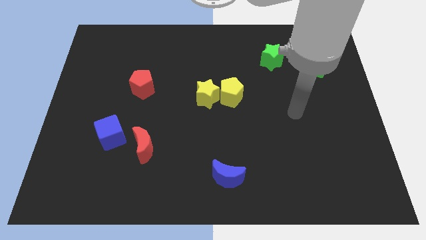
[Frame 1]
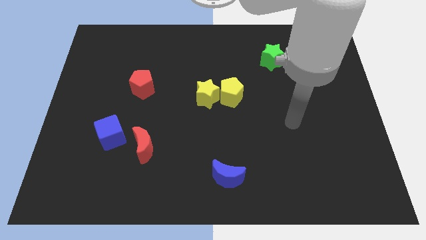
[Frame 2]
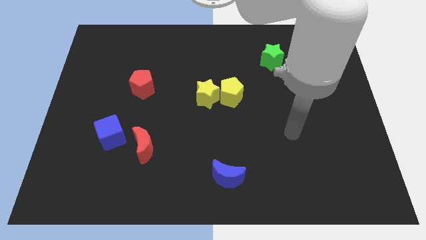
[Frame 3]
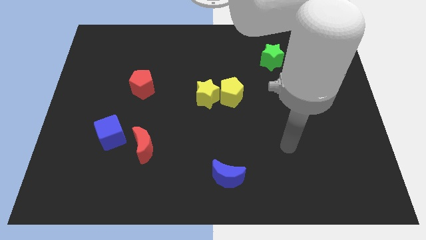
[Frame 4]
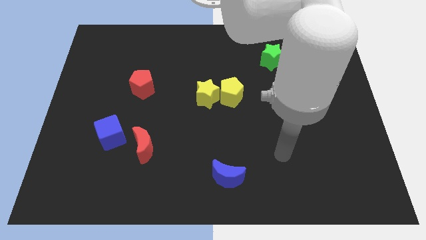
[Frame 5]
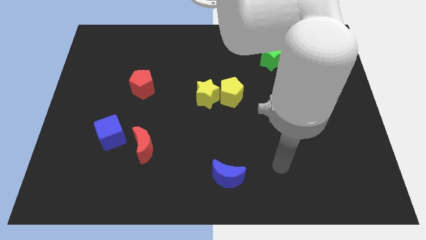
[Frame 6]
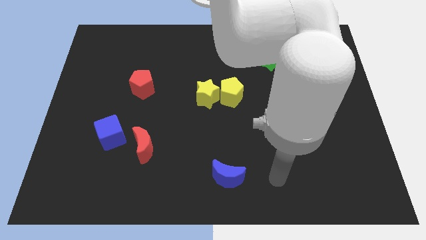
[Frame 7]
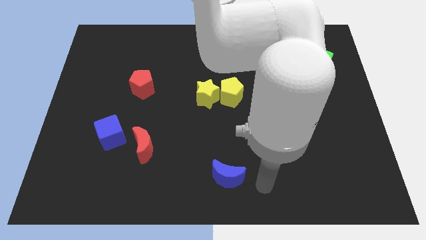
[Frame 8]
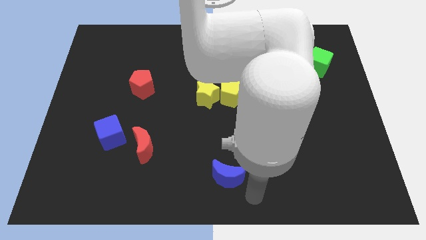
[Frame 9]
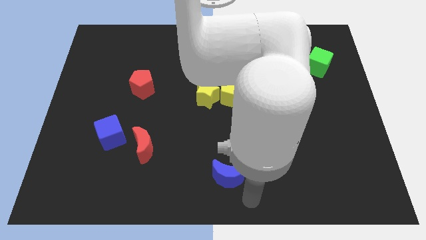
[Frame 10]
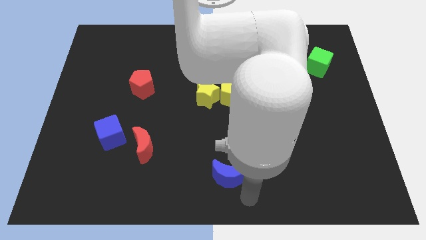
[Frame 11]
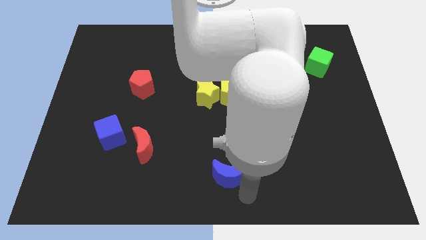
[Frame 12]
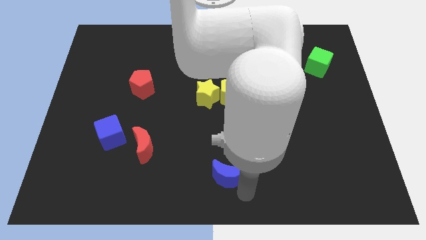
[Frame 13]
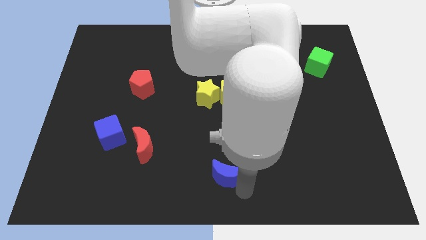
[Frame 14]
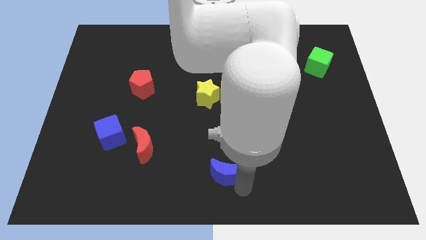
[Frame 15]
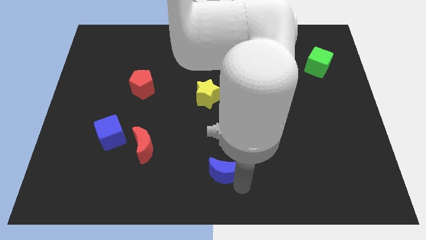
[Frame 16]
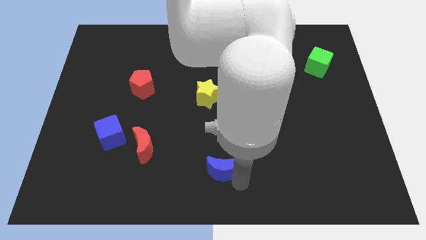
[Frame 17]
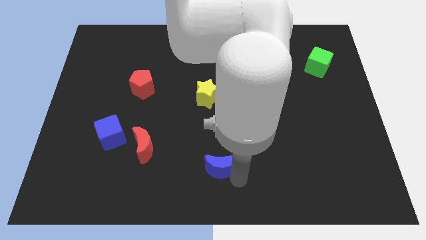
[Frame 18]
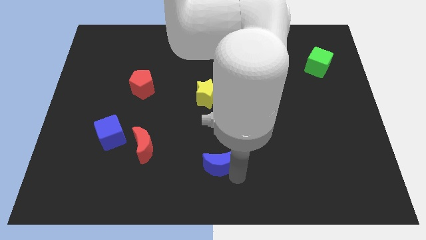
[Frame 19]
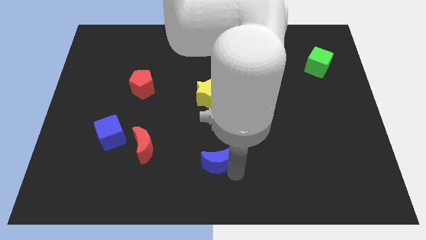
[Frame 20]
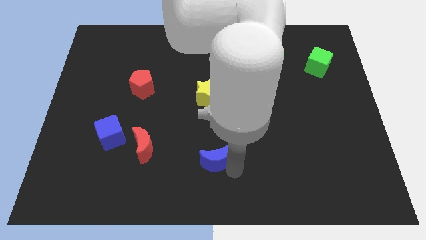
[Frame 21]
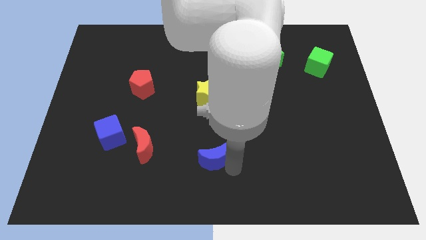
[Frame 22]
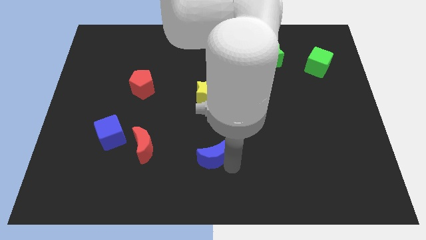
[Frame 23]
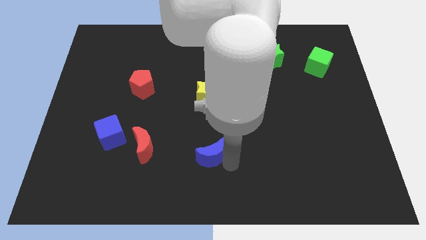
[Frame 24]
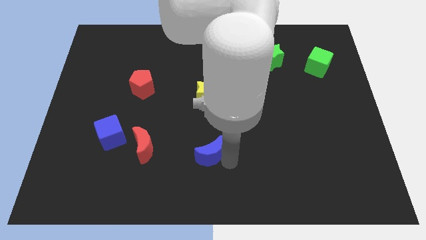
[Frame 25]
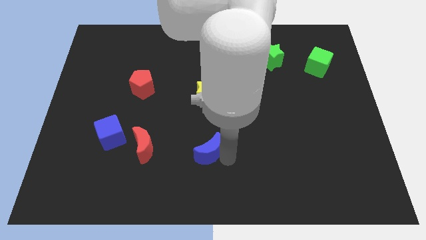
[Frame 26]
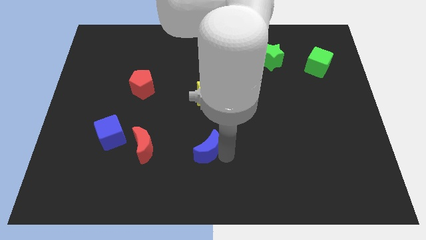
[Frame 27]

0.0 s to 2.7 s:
slide the blue moon somewhat diagonally up and left

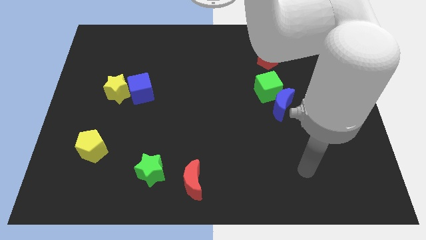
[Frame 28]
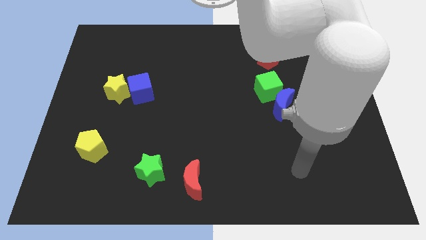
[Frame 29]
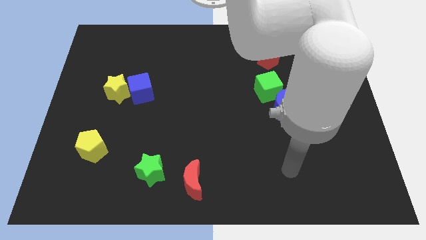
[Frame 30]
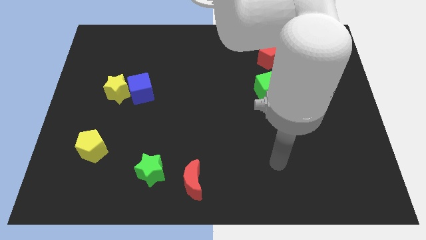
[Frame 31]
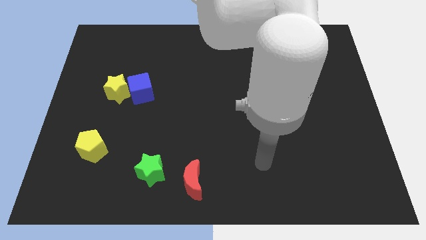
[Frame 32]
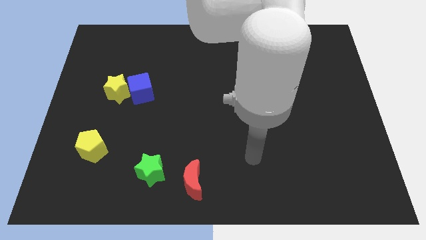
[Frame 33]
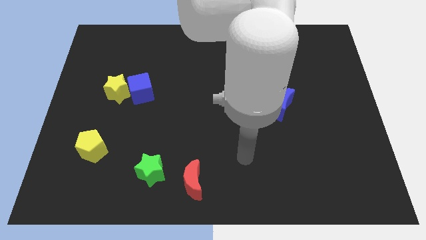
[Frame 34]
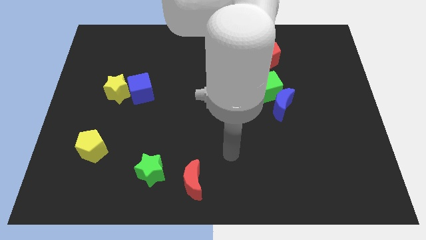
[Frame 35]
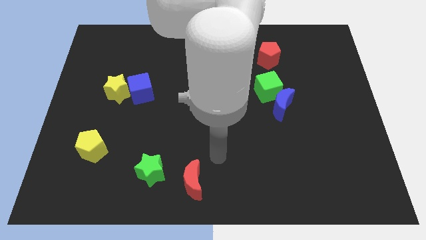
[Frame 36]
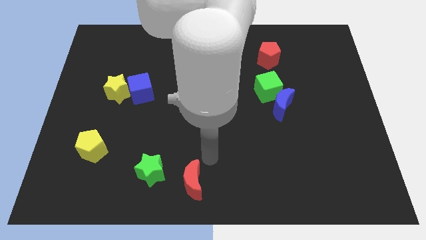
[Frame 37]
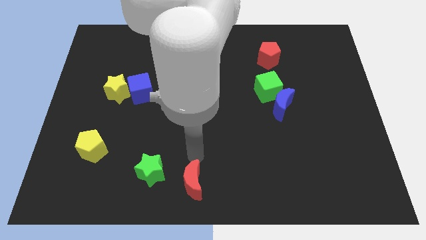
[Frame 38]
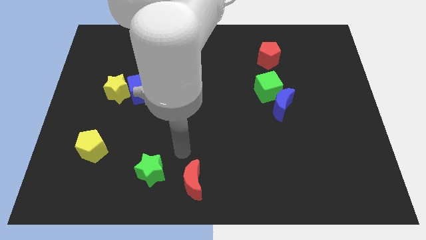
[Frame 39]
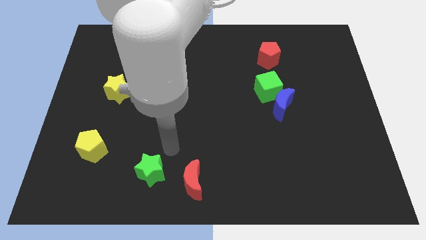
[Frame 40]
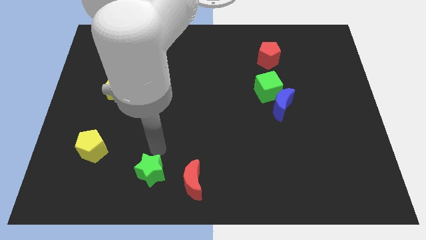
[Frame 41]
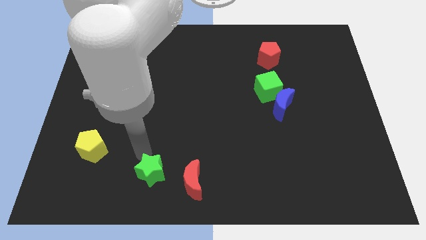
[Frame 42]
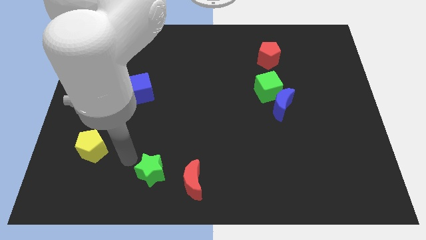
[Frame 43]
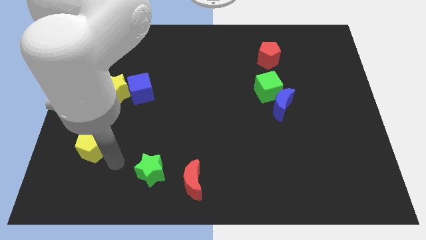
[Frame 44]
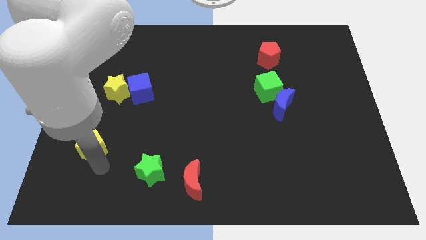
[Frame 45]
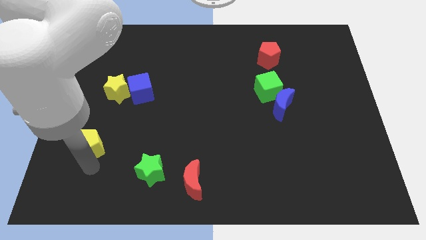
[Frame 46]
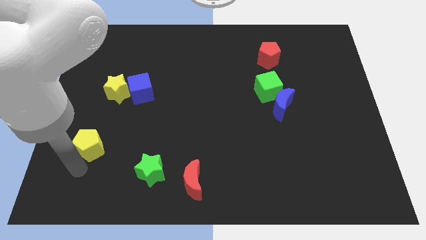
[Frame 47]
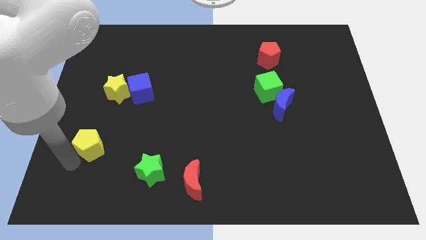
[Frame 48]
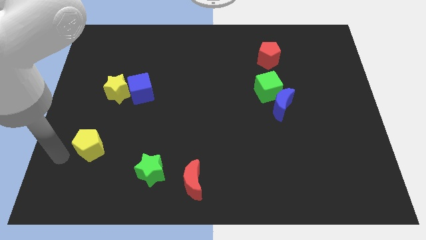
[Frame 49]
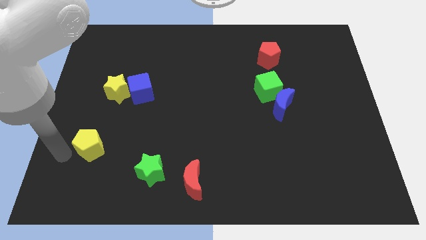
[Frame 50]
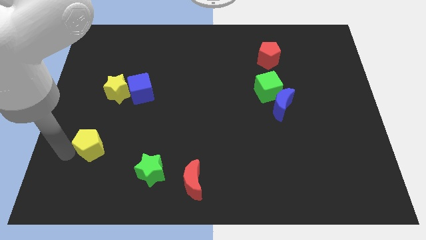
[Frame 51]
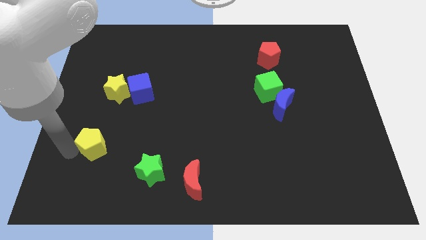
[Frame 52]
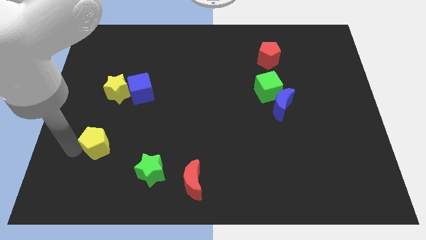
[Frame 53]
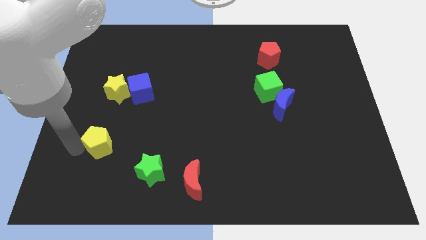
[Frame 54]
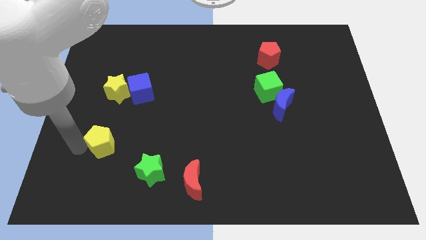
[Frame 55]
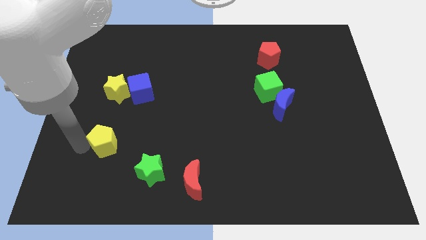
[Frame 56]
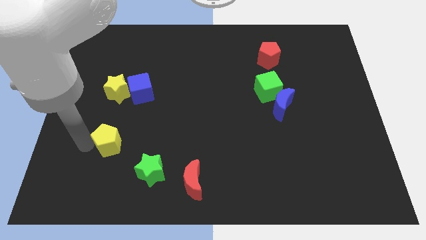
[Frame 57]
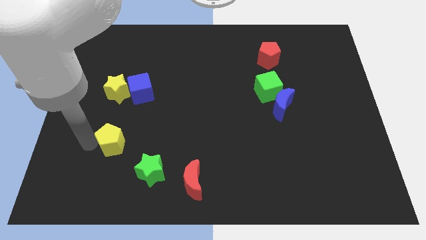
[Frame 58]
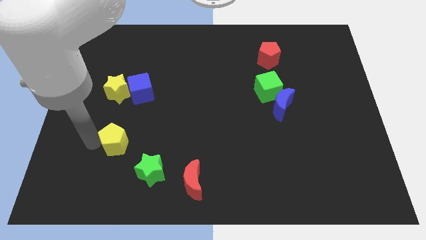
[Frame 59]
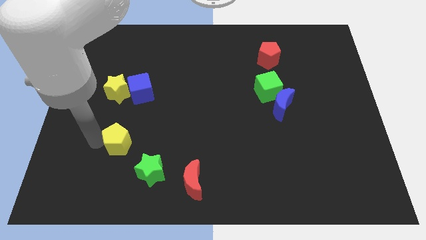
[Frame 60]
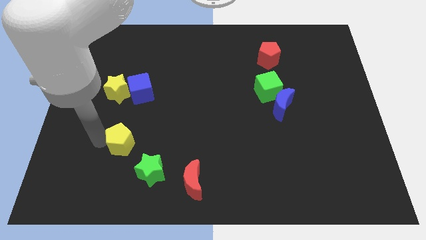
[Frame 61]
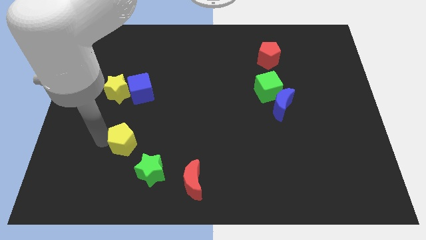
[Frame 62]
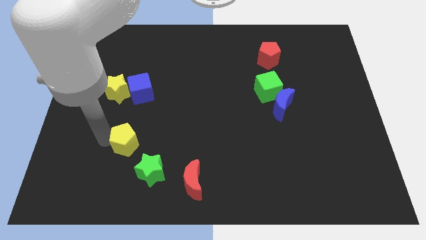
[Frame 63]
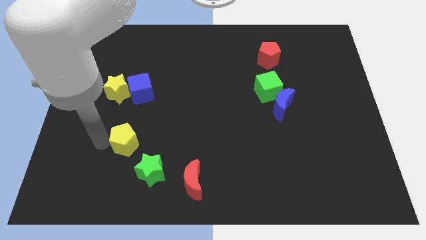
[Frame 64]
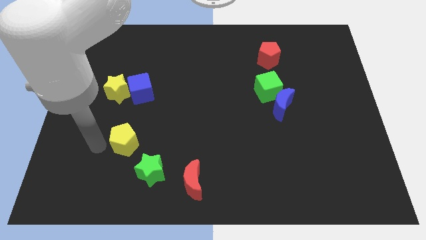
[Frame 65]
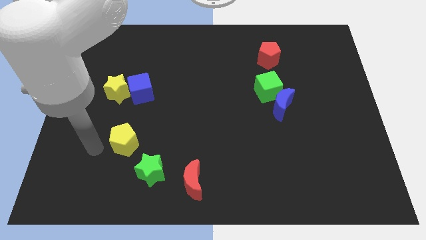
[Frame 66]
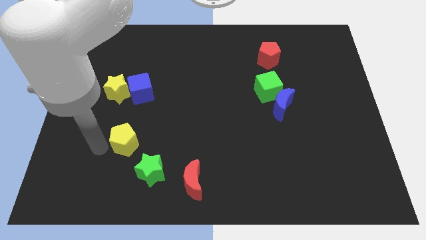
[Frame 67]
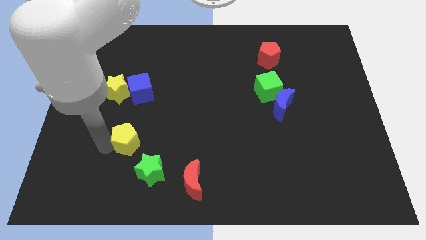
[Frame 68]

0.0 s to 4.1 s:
move the yellow pentagon to the right a bit

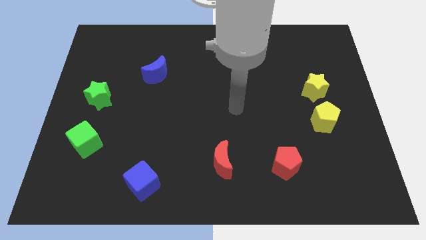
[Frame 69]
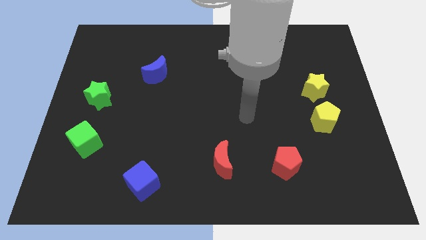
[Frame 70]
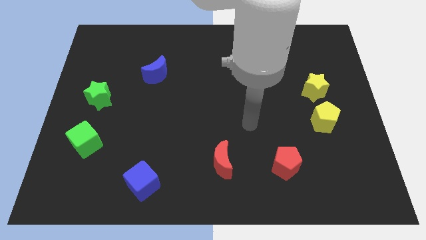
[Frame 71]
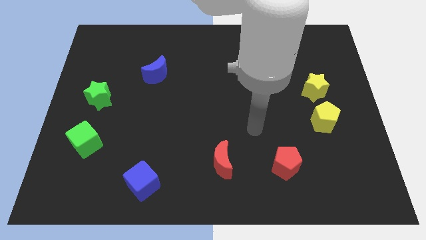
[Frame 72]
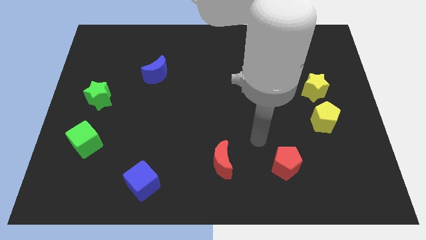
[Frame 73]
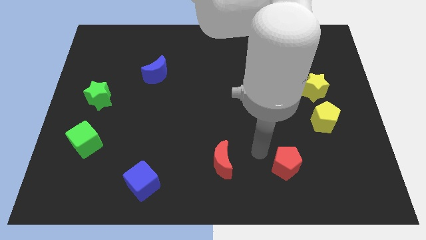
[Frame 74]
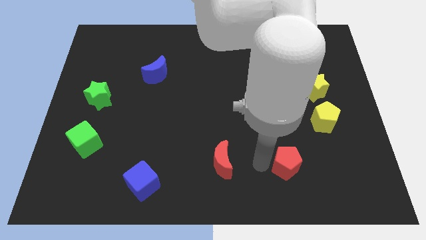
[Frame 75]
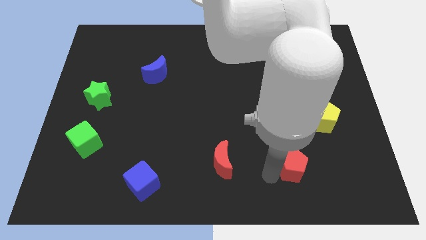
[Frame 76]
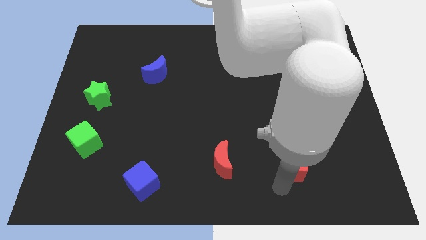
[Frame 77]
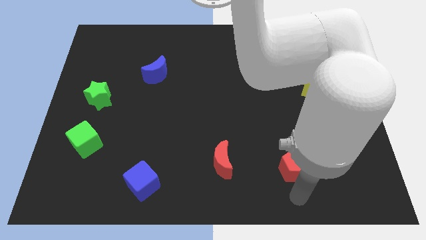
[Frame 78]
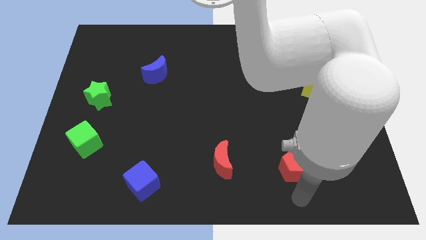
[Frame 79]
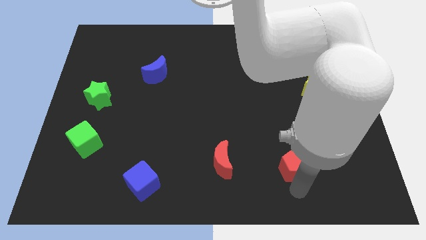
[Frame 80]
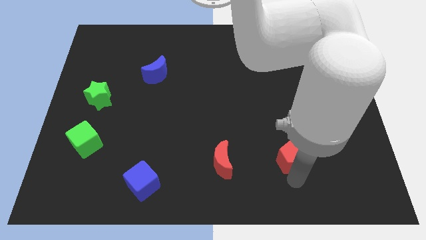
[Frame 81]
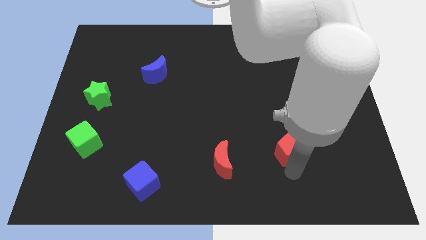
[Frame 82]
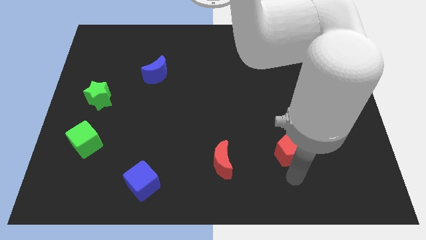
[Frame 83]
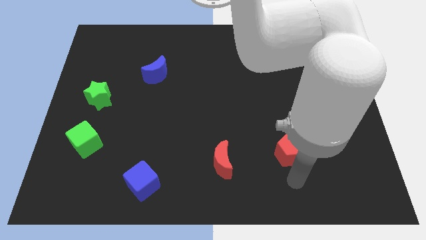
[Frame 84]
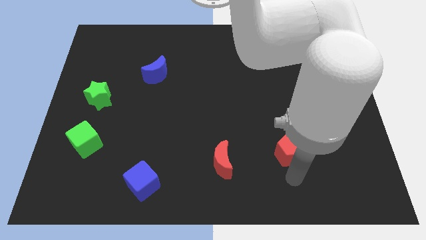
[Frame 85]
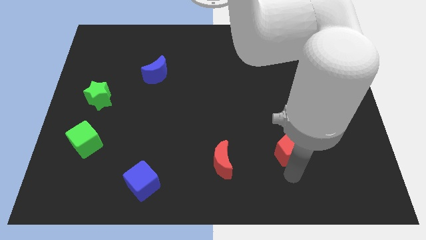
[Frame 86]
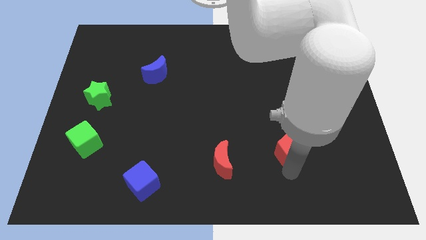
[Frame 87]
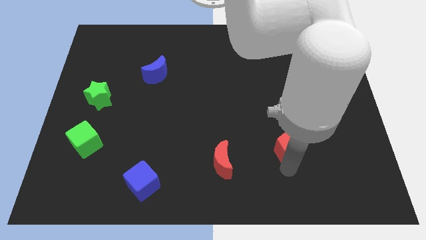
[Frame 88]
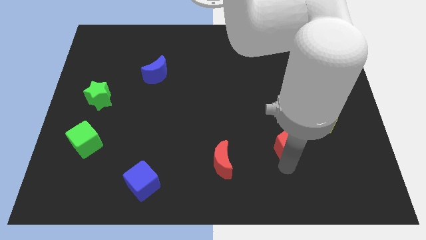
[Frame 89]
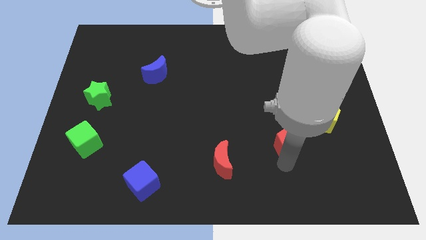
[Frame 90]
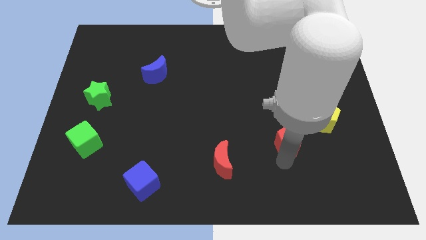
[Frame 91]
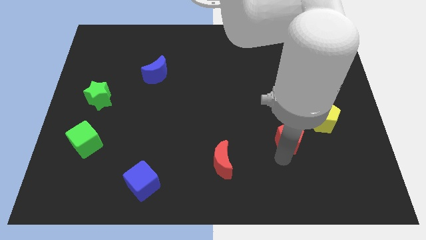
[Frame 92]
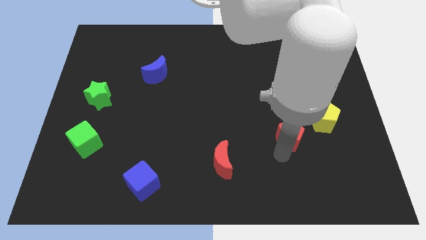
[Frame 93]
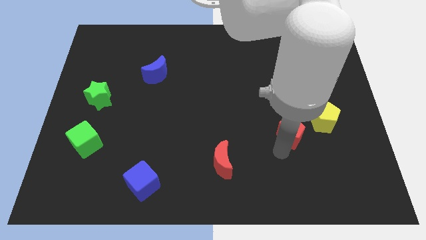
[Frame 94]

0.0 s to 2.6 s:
move the red pentagon upwards a little bit
